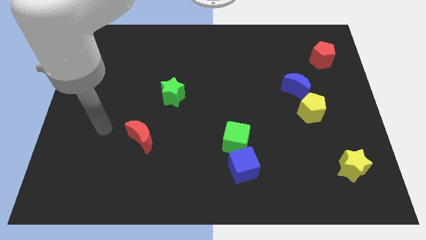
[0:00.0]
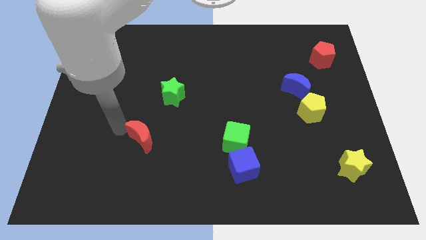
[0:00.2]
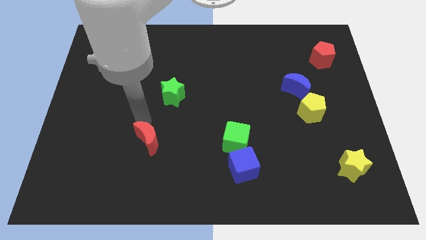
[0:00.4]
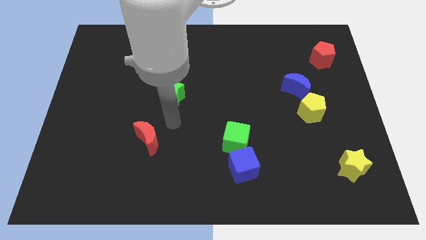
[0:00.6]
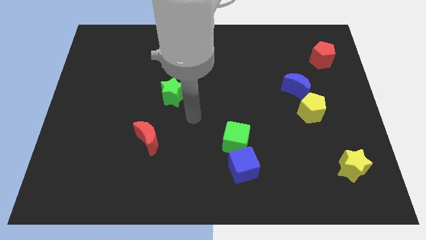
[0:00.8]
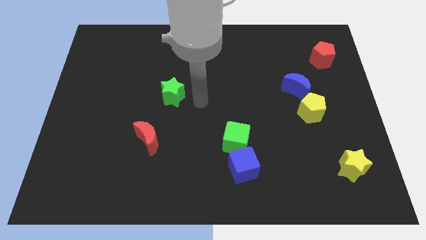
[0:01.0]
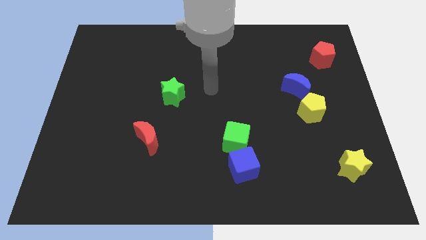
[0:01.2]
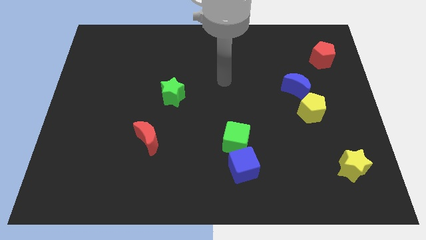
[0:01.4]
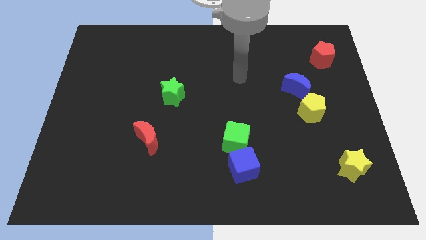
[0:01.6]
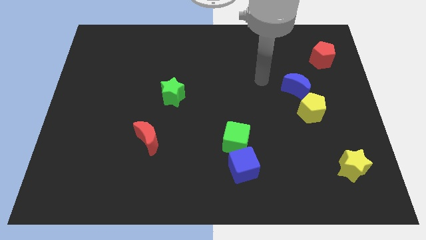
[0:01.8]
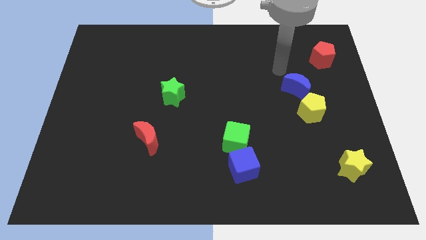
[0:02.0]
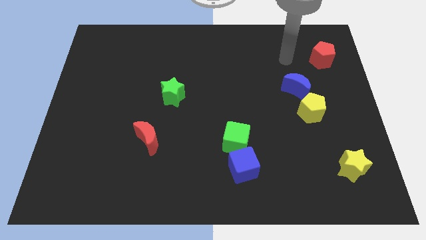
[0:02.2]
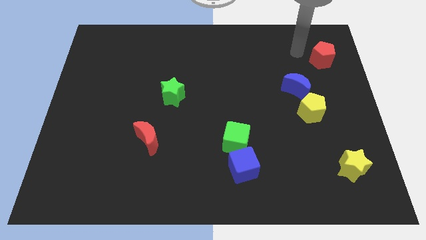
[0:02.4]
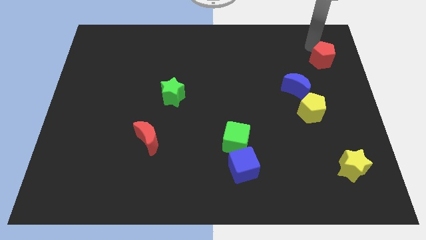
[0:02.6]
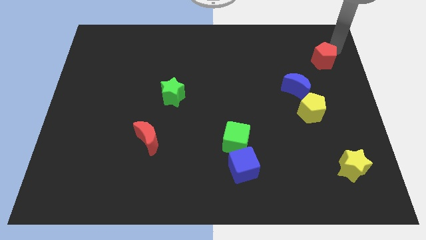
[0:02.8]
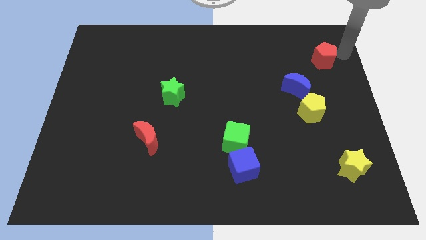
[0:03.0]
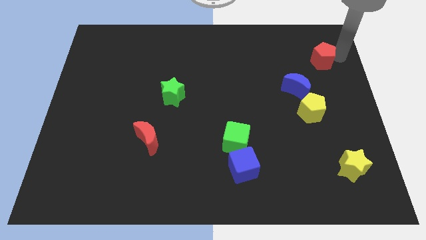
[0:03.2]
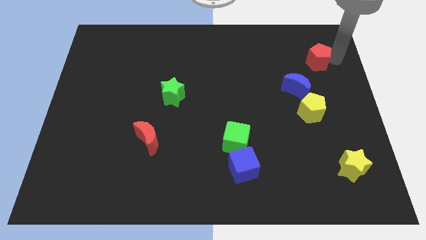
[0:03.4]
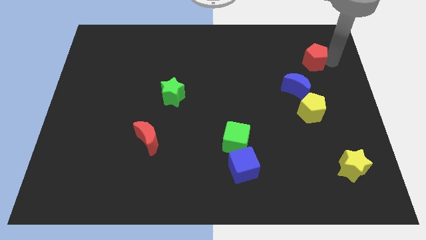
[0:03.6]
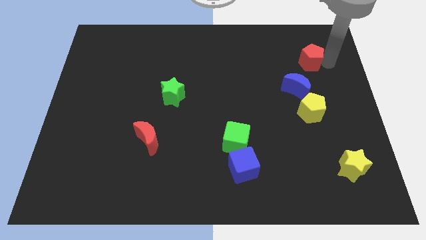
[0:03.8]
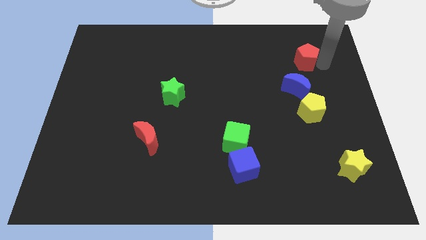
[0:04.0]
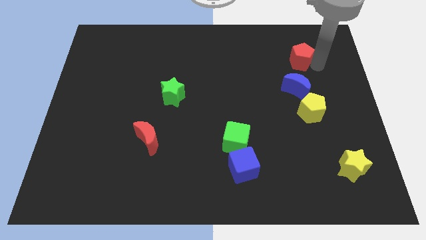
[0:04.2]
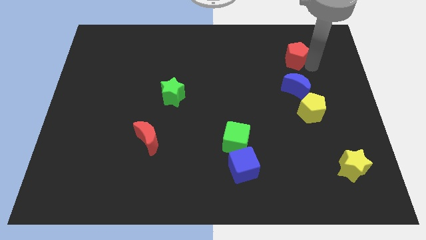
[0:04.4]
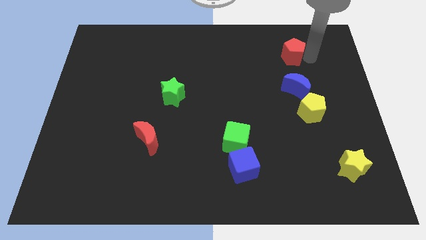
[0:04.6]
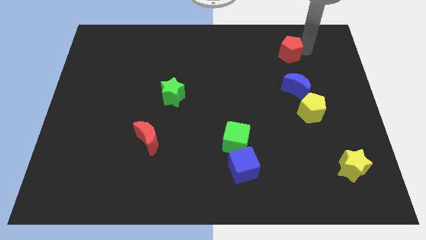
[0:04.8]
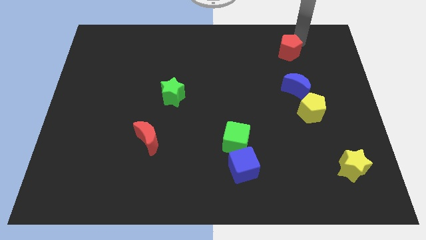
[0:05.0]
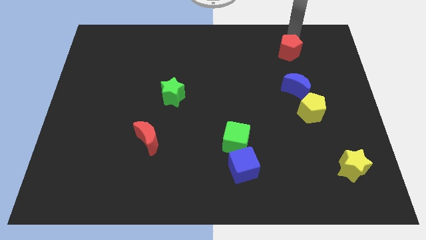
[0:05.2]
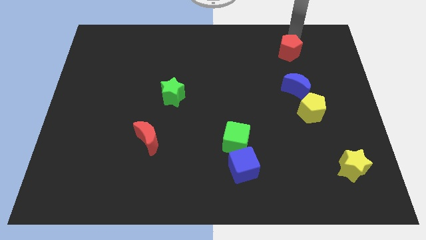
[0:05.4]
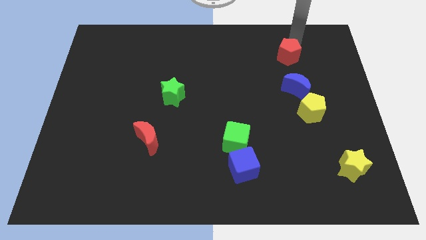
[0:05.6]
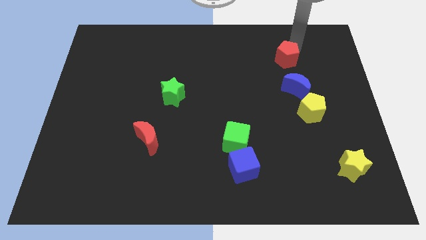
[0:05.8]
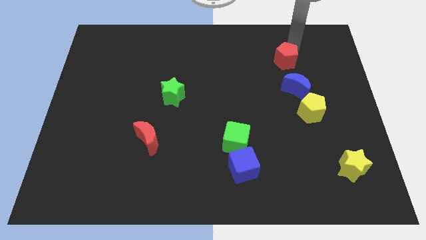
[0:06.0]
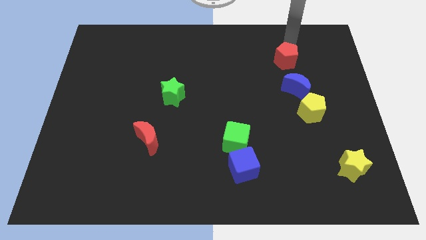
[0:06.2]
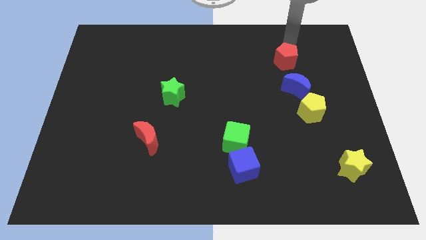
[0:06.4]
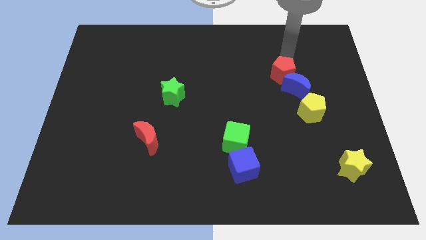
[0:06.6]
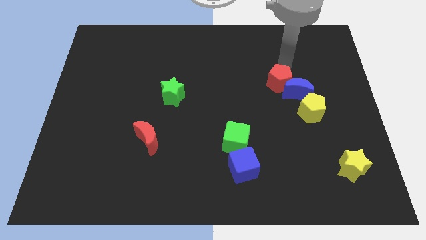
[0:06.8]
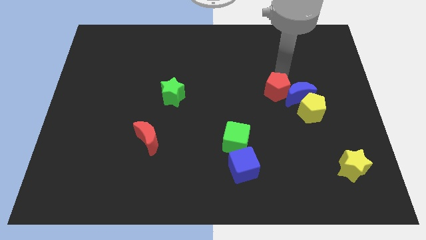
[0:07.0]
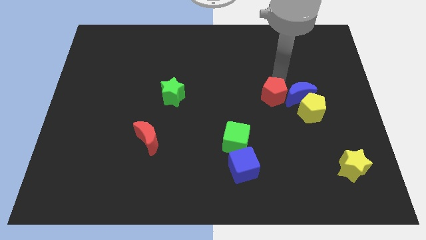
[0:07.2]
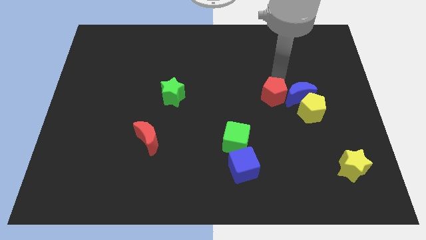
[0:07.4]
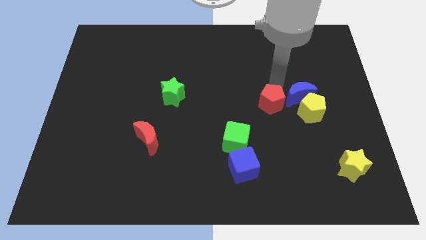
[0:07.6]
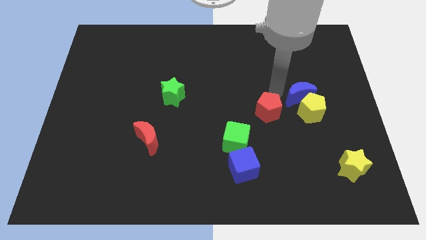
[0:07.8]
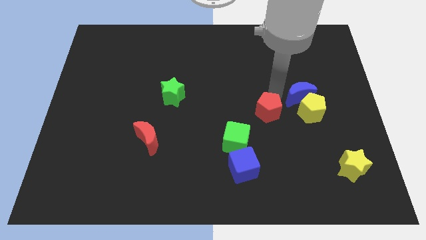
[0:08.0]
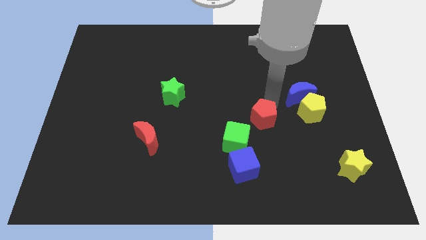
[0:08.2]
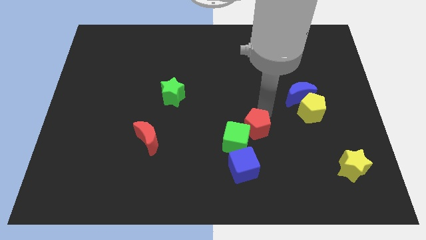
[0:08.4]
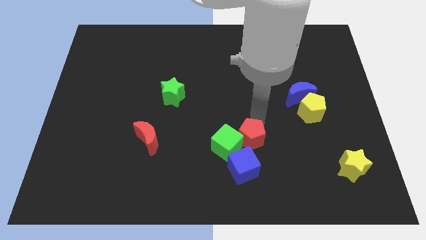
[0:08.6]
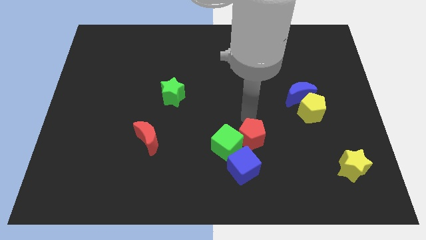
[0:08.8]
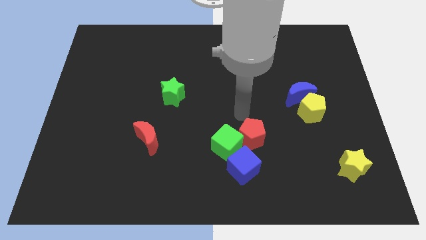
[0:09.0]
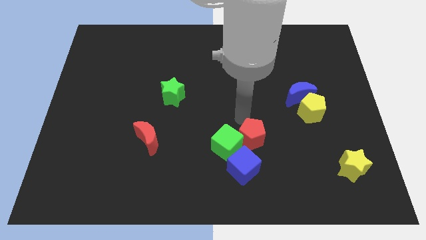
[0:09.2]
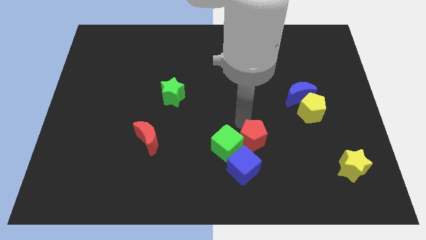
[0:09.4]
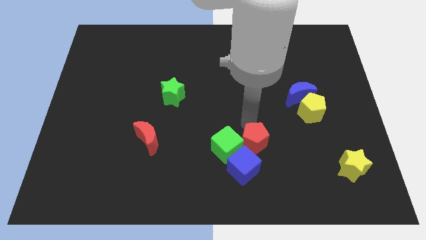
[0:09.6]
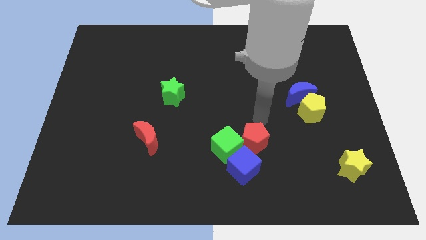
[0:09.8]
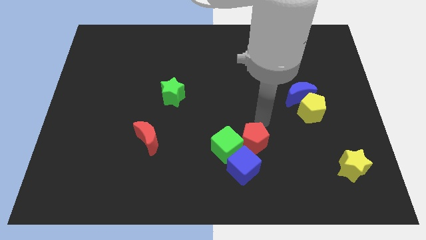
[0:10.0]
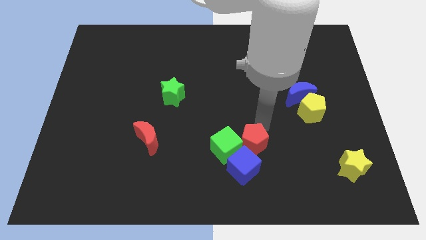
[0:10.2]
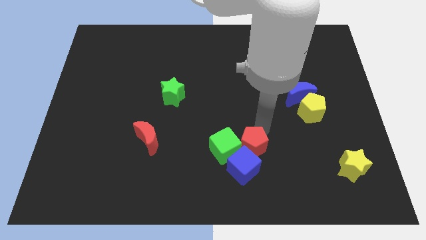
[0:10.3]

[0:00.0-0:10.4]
move the red pentagon to the blue cube

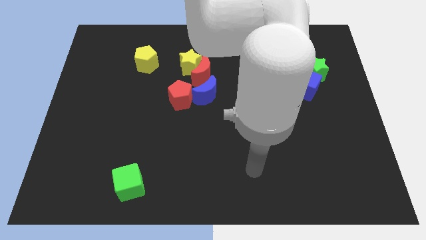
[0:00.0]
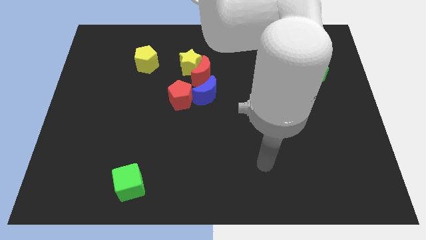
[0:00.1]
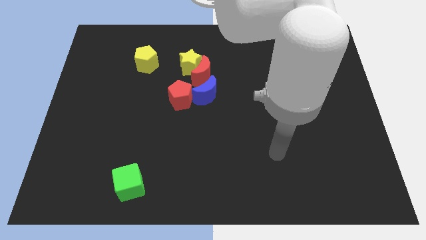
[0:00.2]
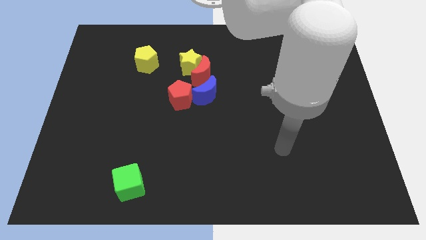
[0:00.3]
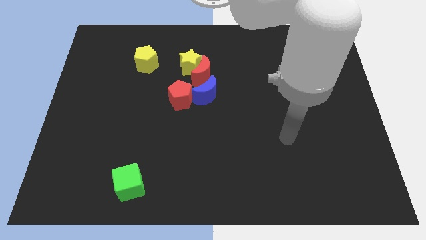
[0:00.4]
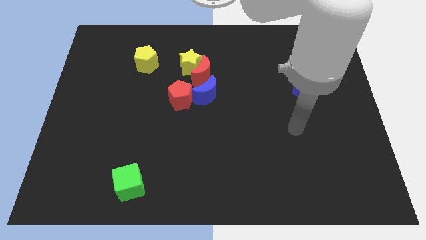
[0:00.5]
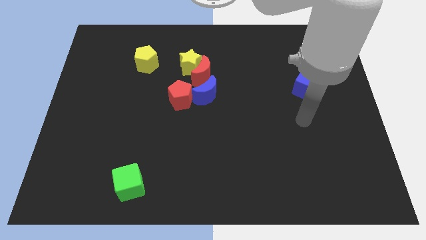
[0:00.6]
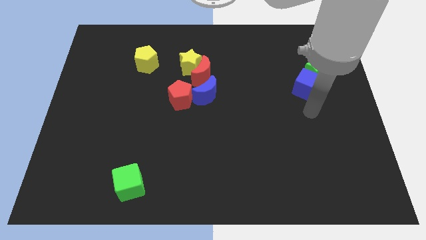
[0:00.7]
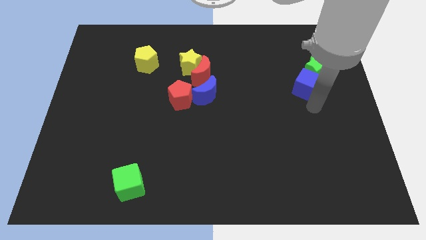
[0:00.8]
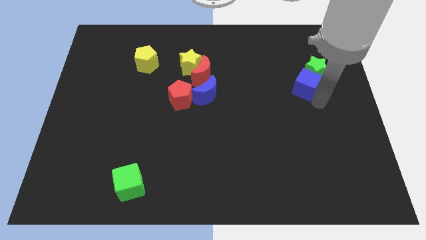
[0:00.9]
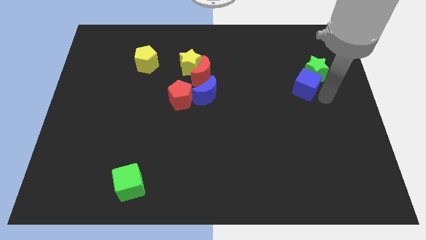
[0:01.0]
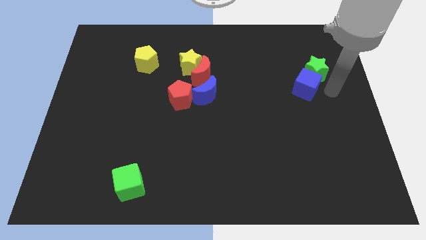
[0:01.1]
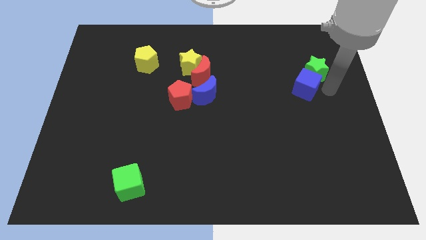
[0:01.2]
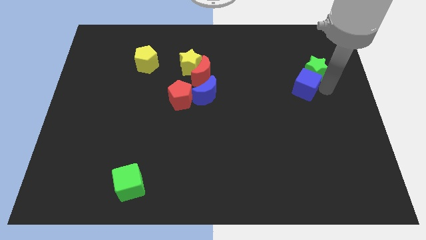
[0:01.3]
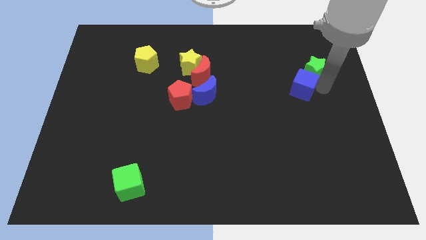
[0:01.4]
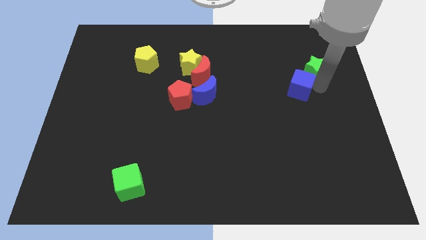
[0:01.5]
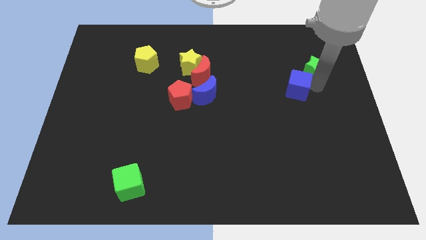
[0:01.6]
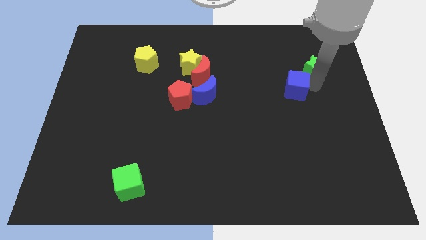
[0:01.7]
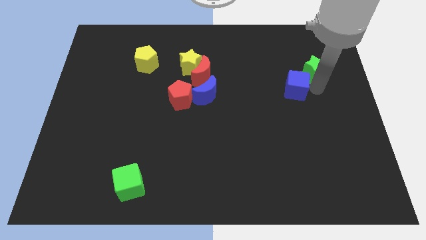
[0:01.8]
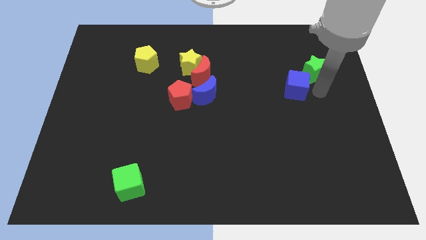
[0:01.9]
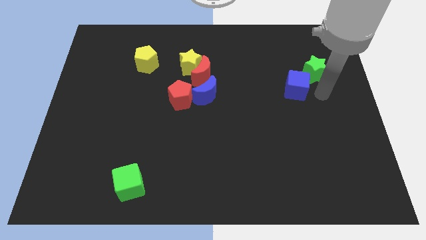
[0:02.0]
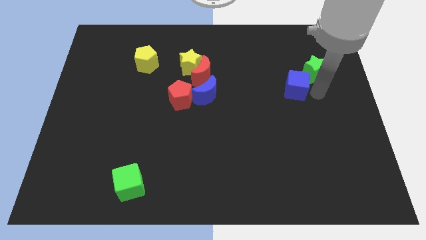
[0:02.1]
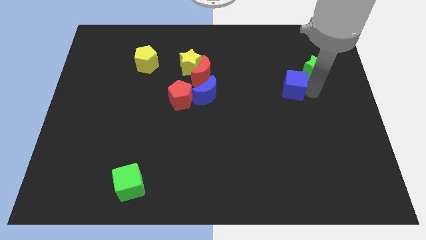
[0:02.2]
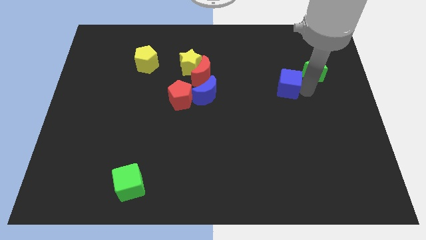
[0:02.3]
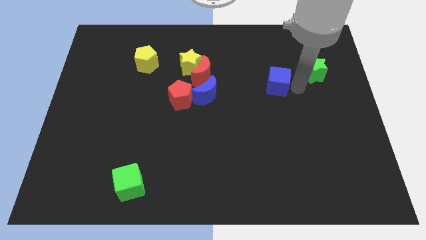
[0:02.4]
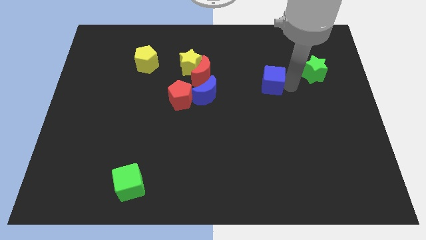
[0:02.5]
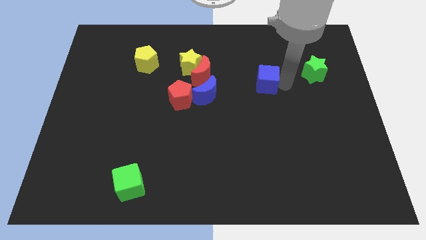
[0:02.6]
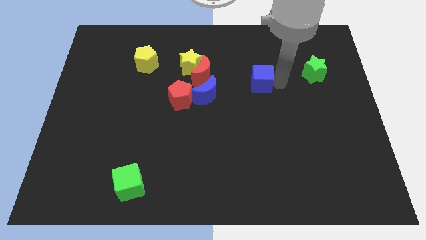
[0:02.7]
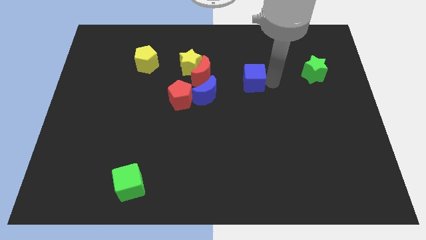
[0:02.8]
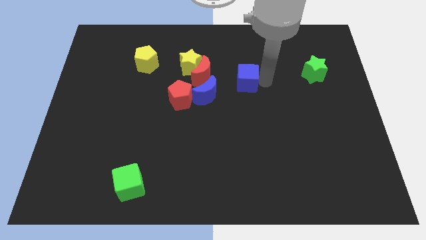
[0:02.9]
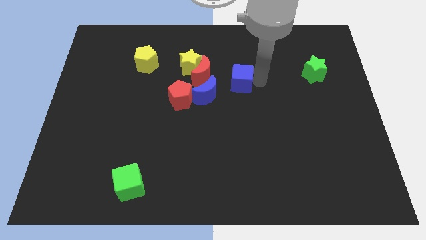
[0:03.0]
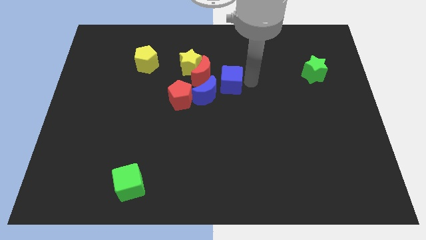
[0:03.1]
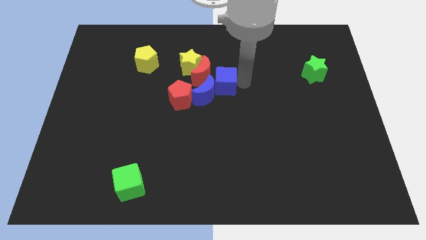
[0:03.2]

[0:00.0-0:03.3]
slide the blue cube next to the red moon
